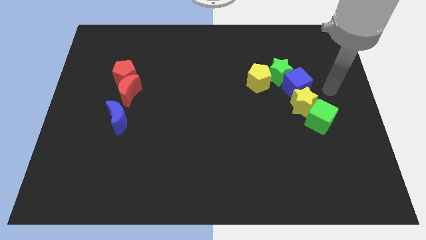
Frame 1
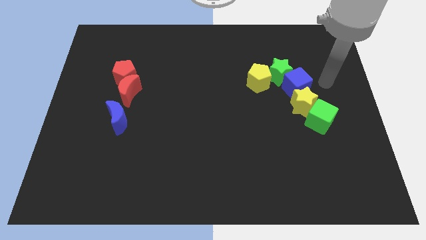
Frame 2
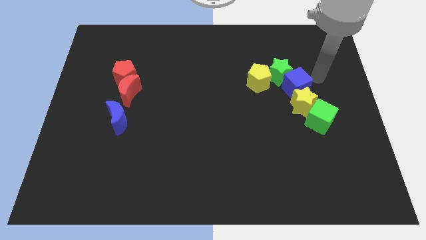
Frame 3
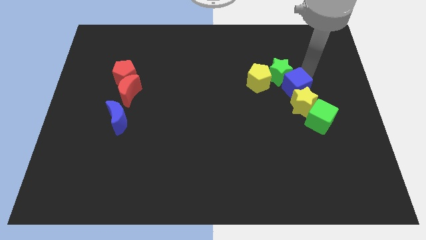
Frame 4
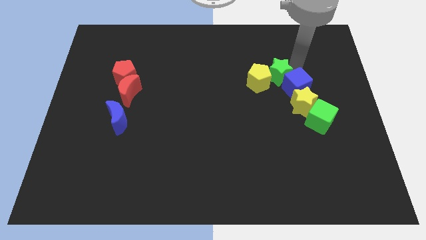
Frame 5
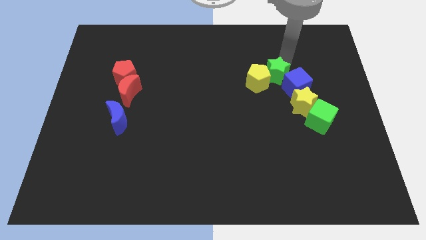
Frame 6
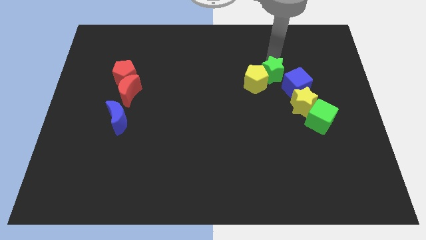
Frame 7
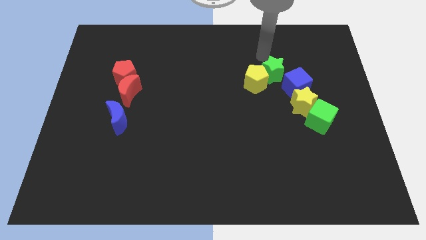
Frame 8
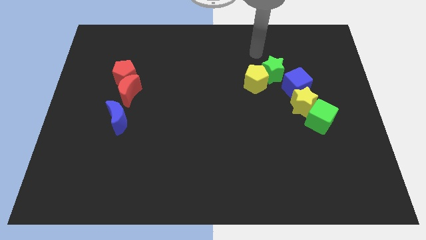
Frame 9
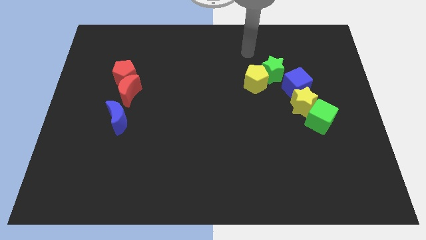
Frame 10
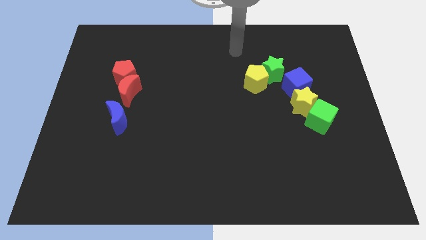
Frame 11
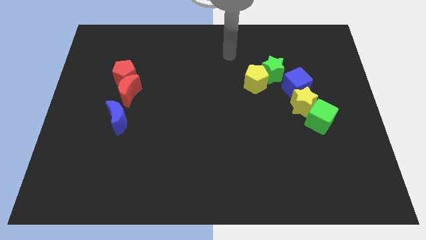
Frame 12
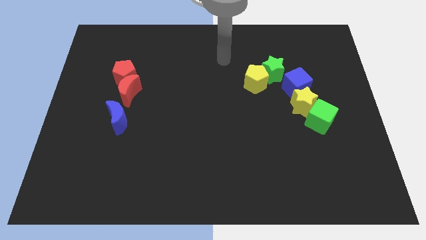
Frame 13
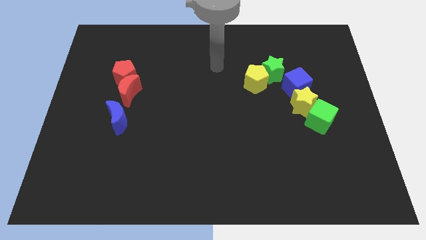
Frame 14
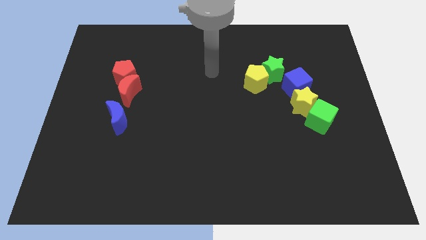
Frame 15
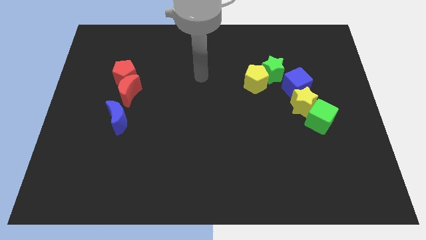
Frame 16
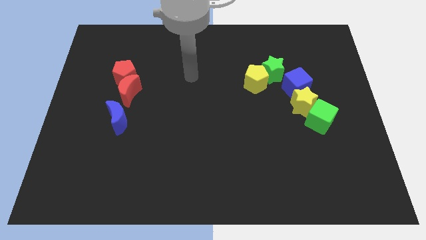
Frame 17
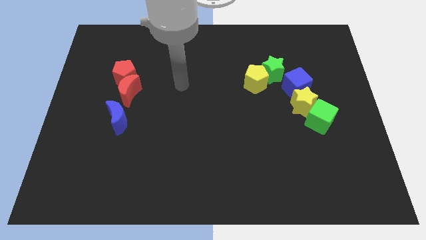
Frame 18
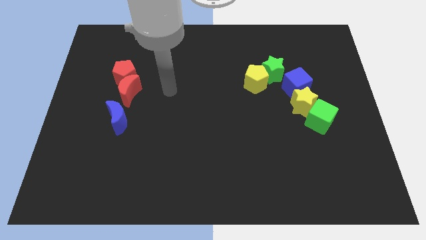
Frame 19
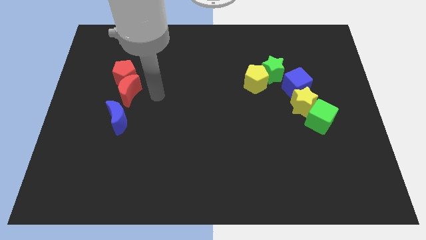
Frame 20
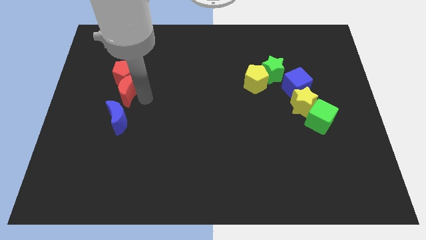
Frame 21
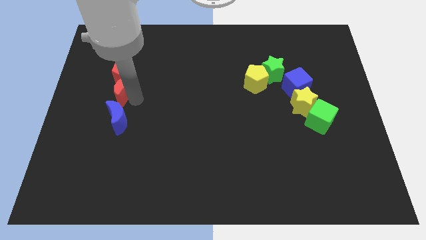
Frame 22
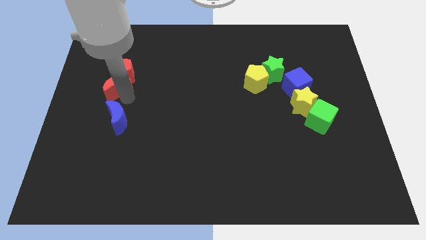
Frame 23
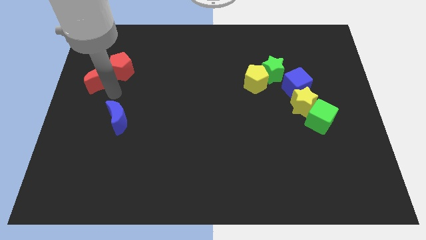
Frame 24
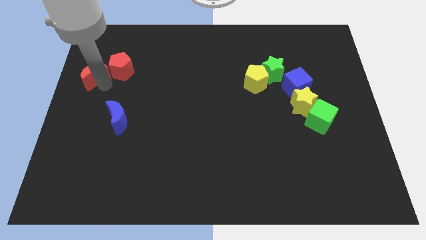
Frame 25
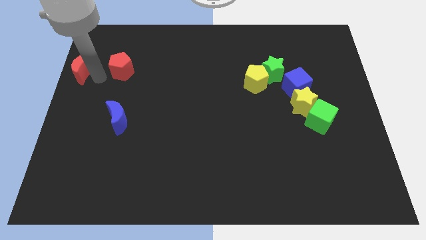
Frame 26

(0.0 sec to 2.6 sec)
pull the red pentagon apart from the red moon

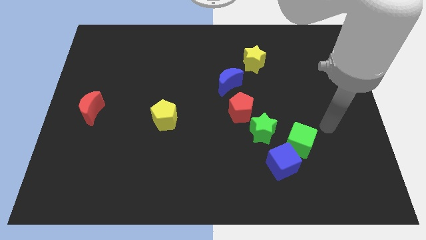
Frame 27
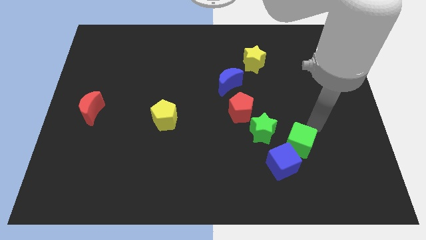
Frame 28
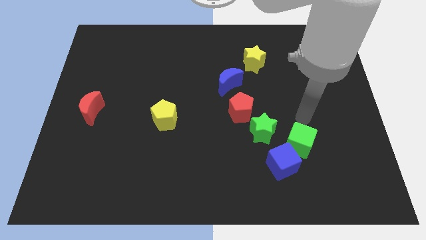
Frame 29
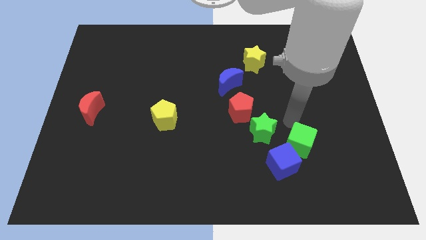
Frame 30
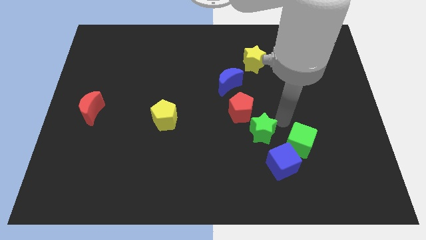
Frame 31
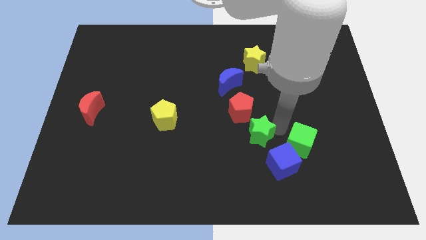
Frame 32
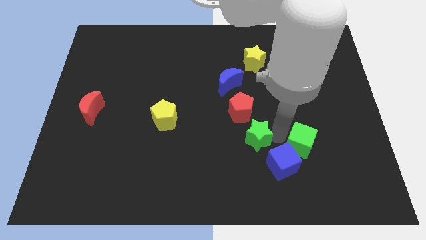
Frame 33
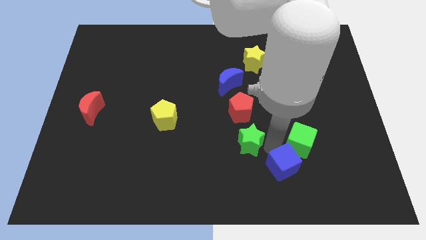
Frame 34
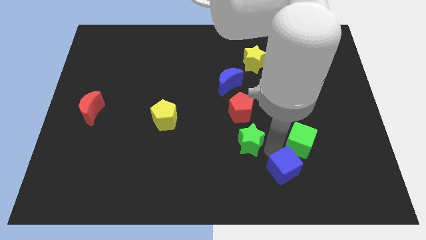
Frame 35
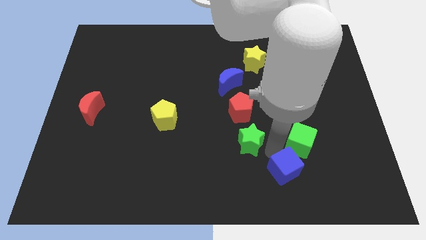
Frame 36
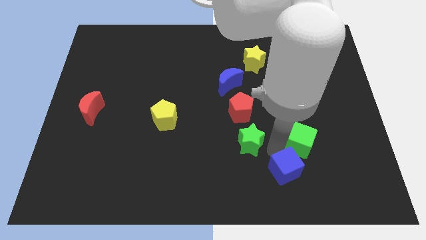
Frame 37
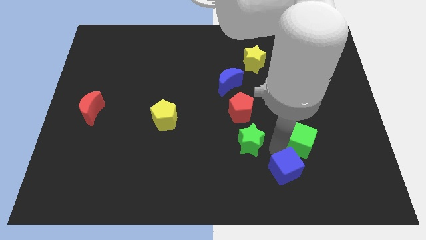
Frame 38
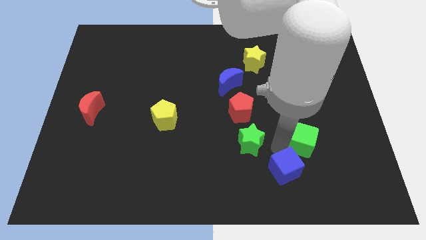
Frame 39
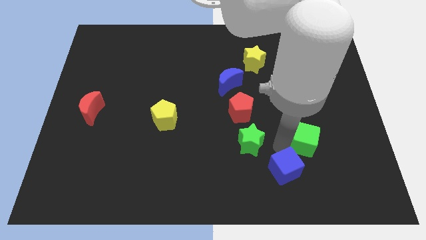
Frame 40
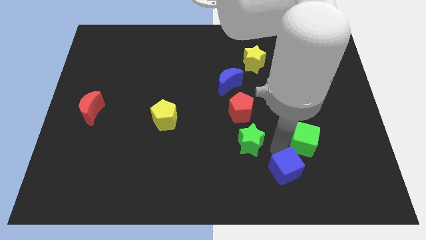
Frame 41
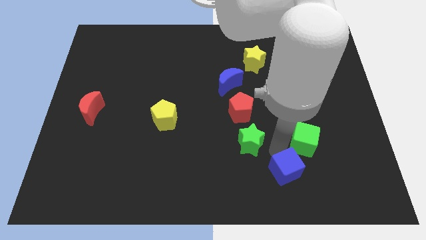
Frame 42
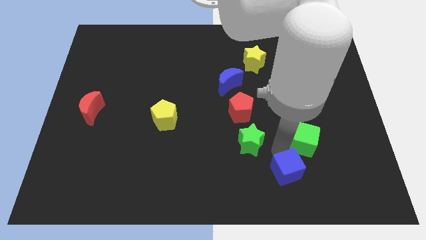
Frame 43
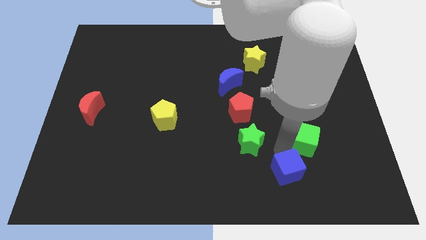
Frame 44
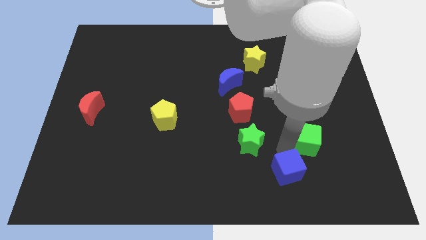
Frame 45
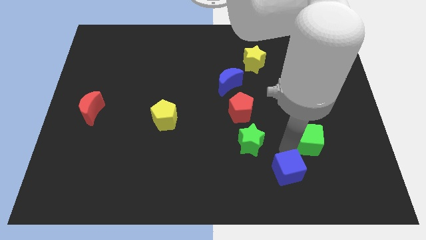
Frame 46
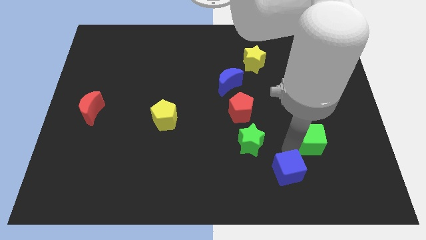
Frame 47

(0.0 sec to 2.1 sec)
separate the green cube from the blue cube and green star

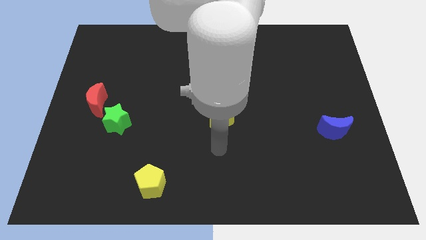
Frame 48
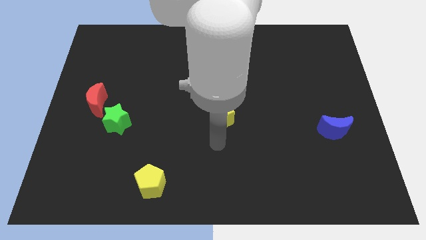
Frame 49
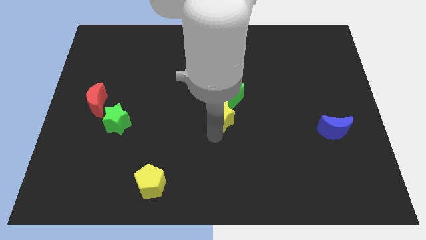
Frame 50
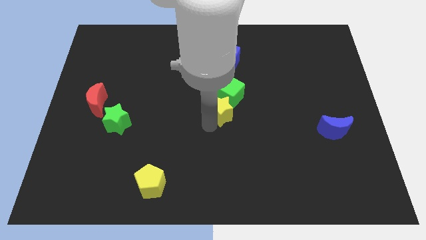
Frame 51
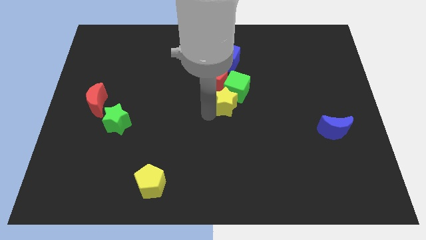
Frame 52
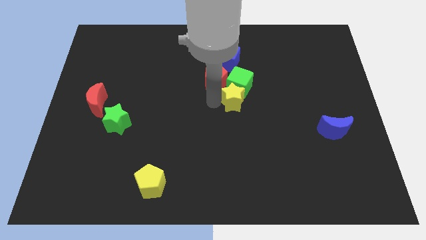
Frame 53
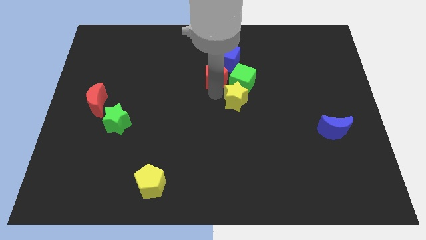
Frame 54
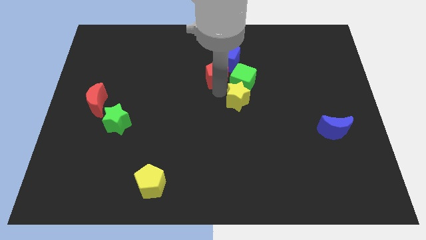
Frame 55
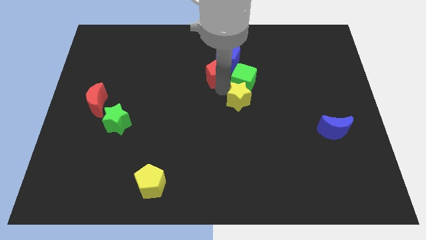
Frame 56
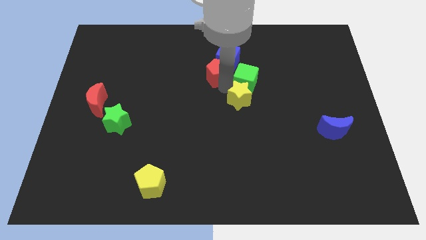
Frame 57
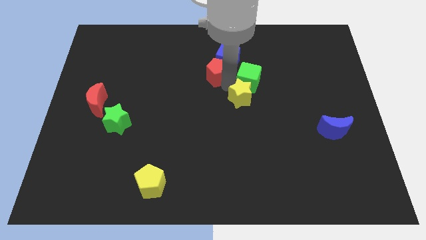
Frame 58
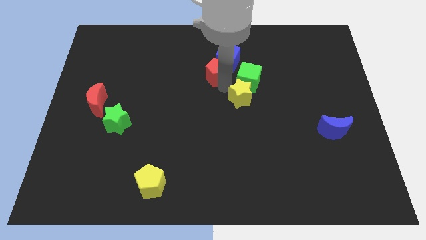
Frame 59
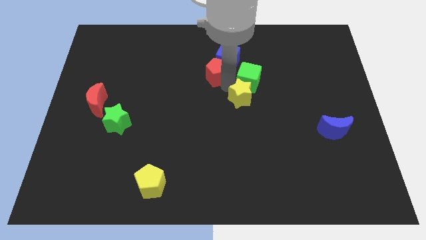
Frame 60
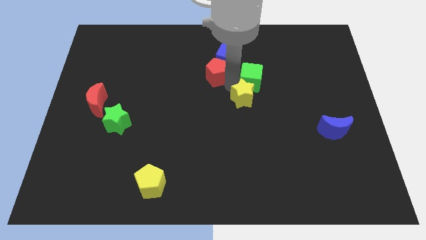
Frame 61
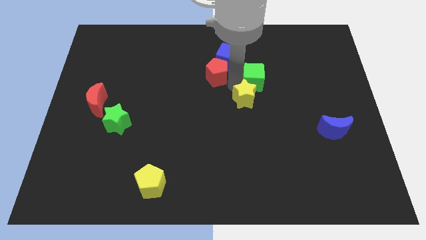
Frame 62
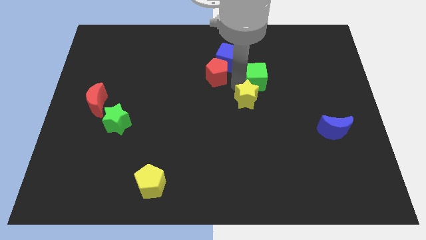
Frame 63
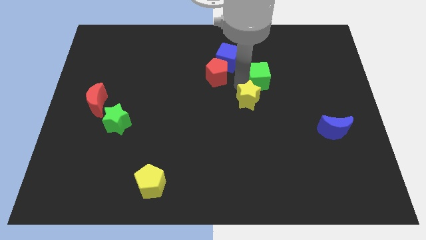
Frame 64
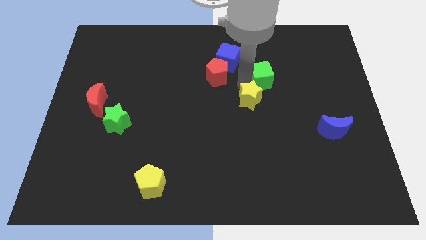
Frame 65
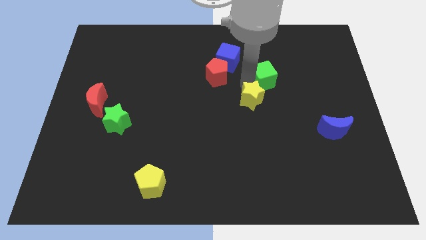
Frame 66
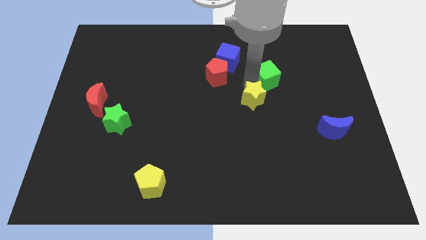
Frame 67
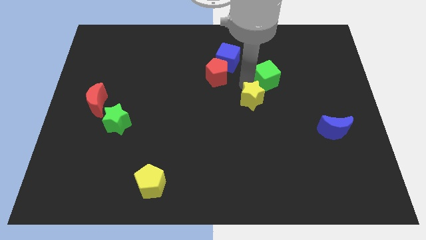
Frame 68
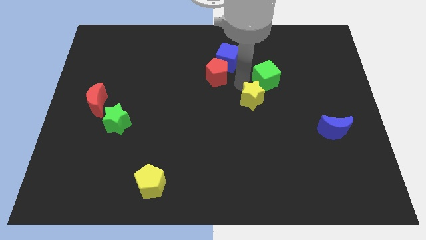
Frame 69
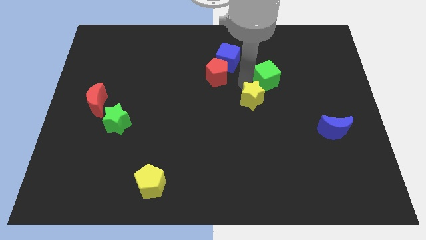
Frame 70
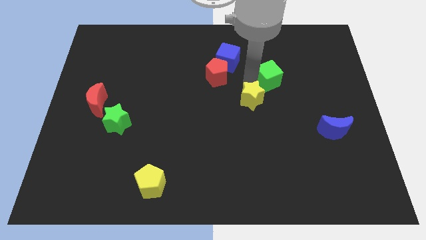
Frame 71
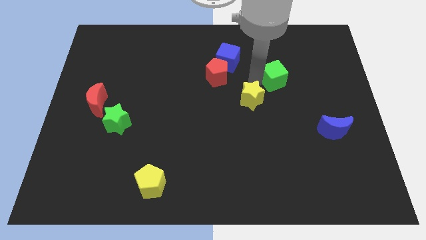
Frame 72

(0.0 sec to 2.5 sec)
separate the green cube from the red pentagon and yellow star

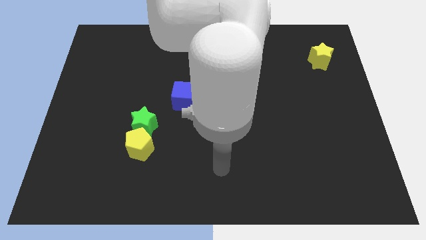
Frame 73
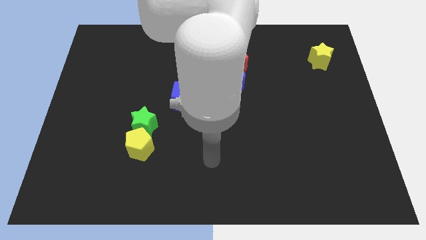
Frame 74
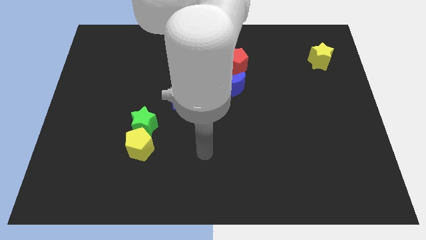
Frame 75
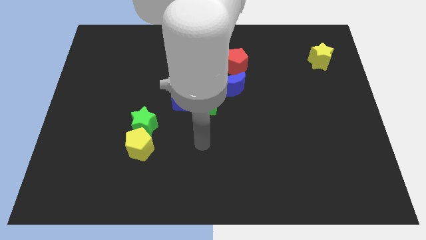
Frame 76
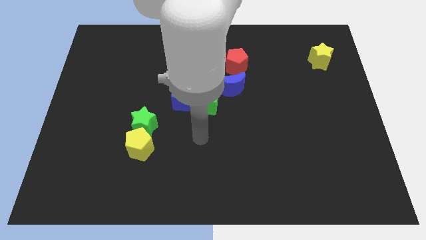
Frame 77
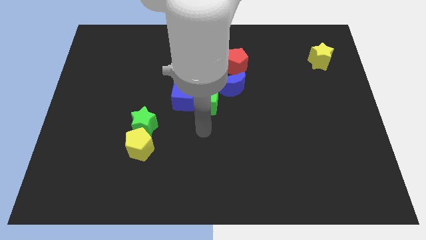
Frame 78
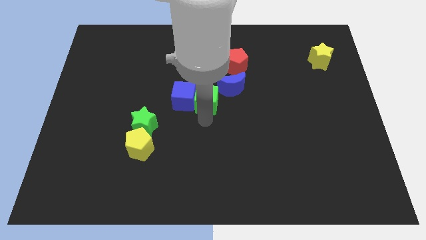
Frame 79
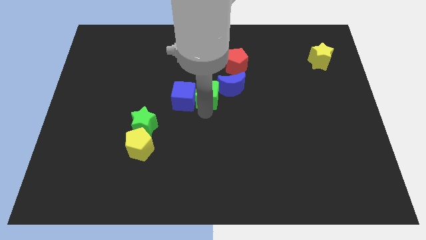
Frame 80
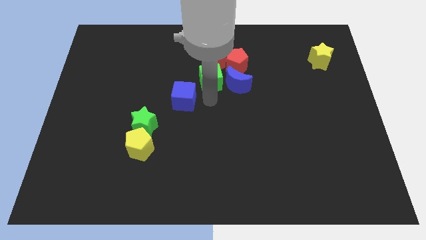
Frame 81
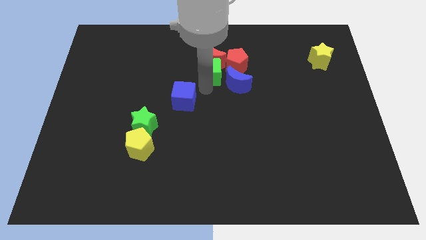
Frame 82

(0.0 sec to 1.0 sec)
separate the blue cube from the green cube

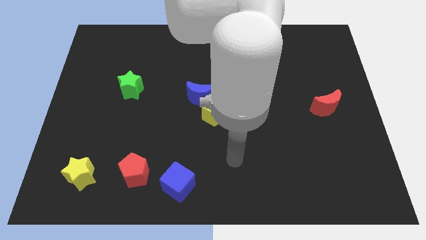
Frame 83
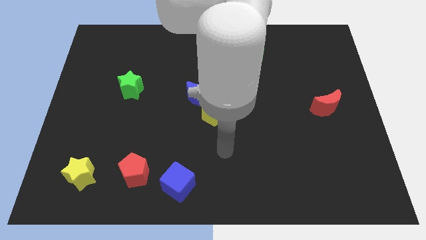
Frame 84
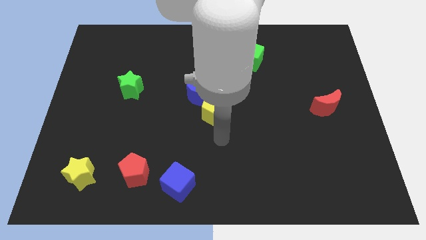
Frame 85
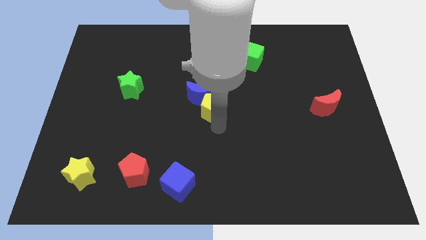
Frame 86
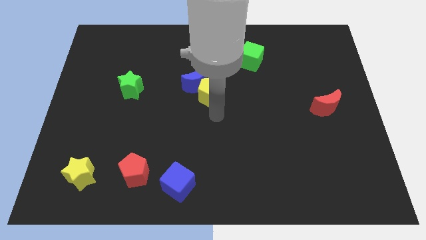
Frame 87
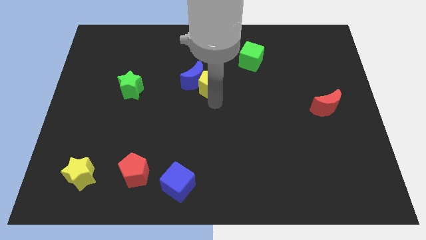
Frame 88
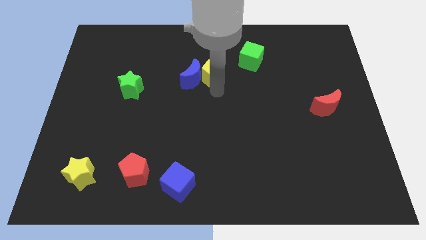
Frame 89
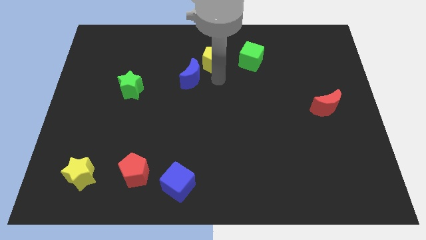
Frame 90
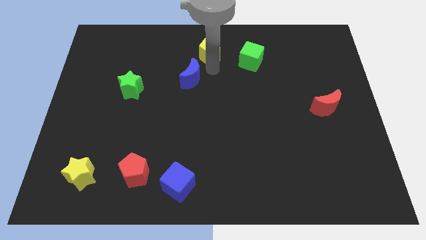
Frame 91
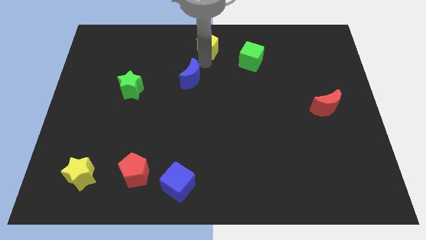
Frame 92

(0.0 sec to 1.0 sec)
pull the blue moon apart from the yellow pentagon

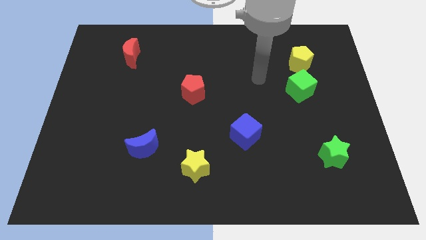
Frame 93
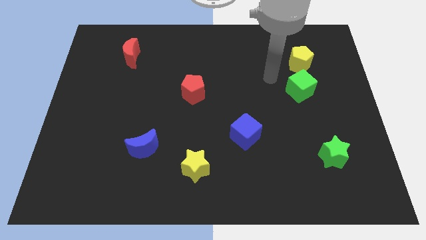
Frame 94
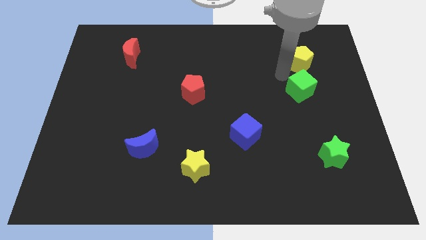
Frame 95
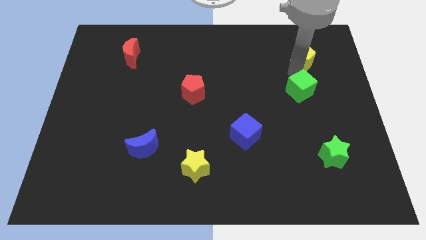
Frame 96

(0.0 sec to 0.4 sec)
move the green cube away from the yellow pentagon
